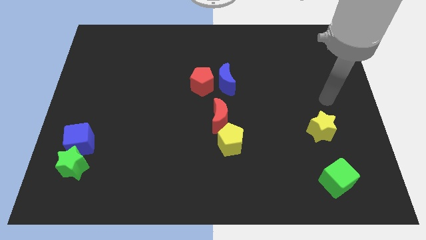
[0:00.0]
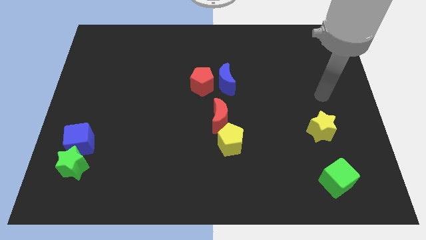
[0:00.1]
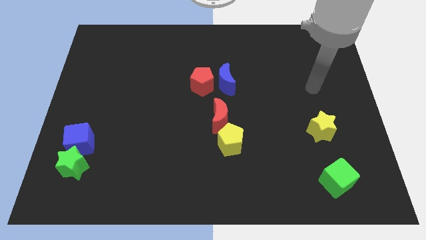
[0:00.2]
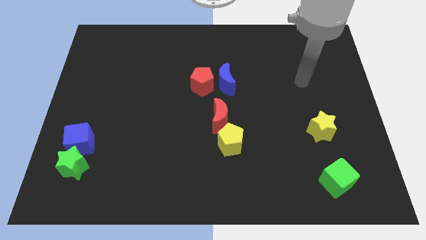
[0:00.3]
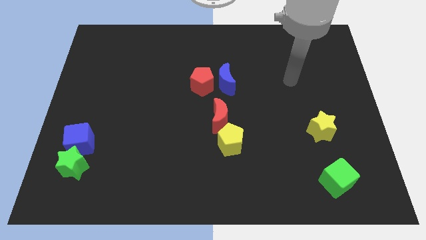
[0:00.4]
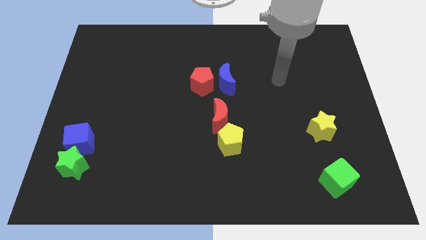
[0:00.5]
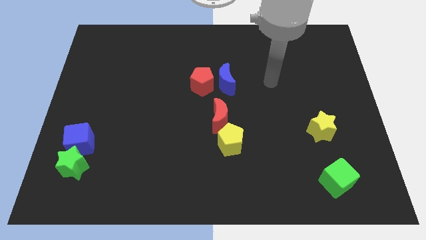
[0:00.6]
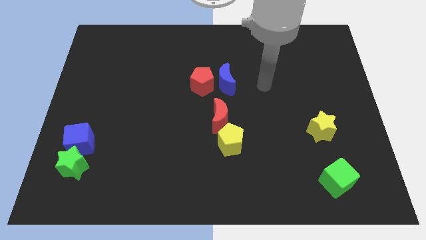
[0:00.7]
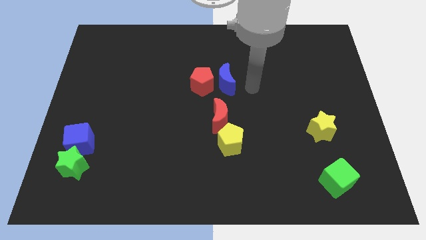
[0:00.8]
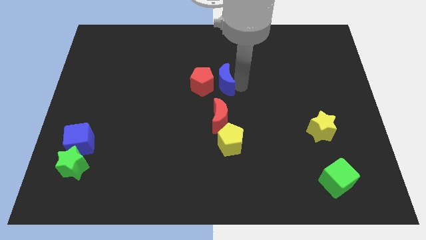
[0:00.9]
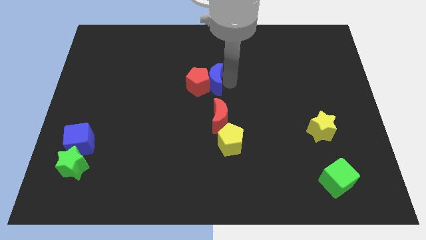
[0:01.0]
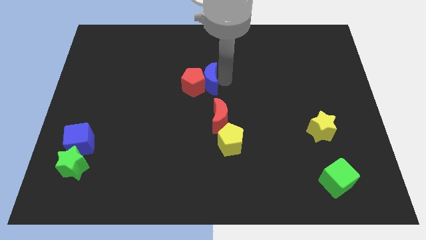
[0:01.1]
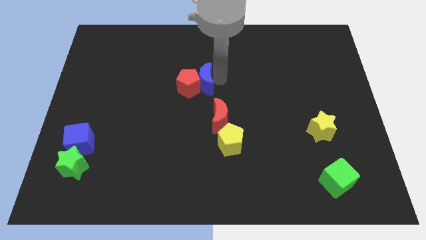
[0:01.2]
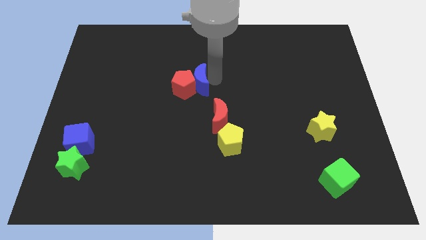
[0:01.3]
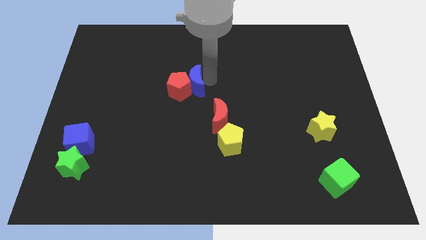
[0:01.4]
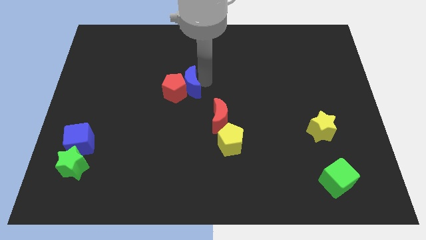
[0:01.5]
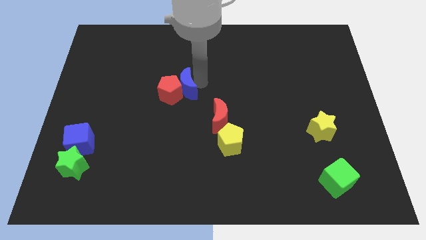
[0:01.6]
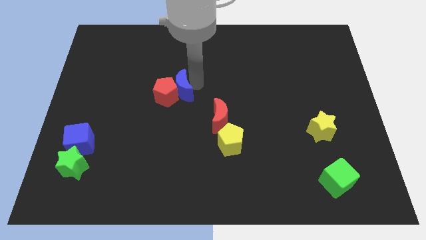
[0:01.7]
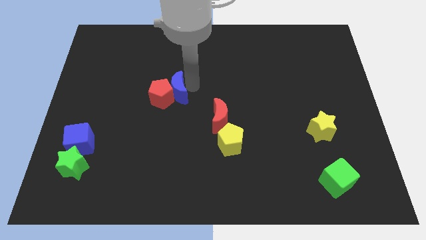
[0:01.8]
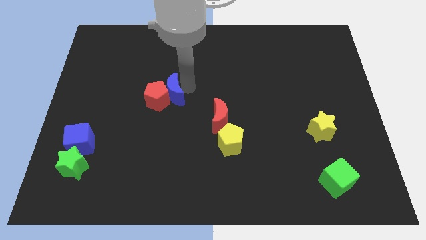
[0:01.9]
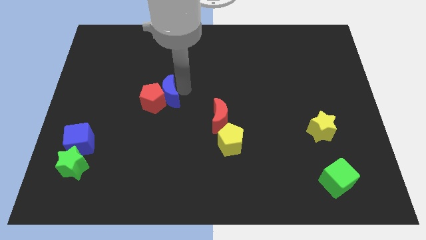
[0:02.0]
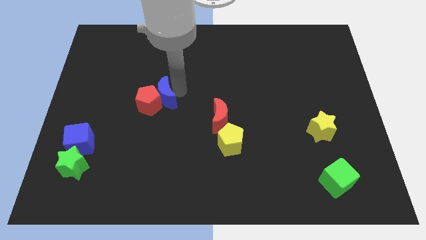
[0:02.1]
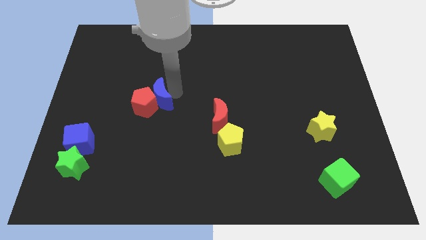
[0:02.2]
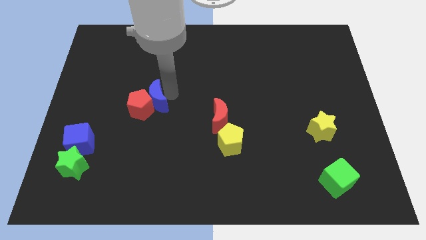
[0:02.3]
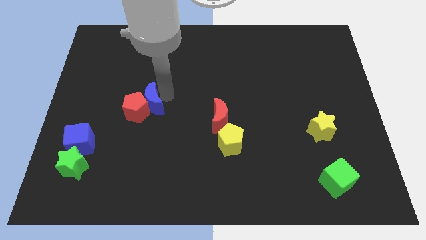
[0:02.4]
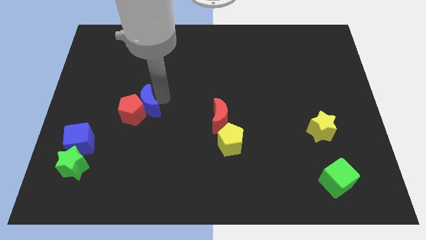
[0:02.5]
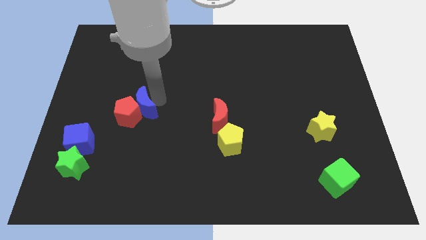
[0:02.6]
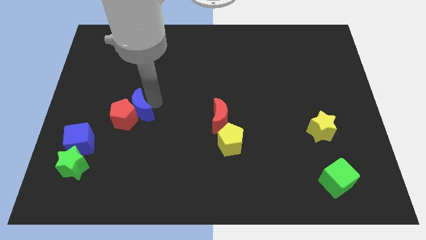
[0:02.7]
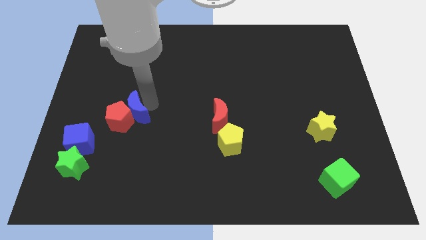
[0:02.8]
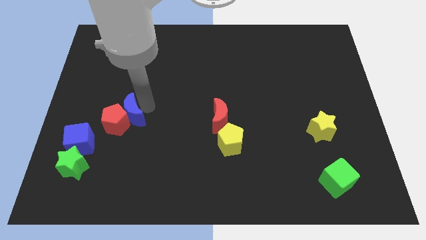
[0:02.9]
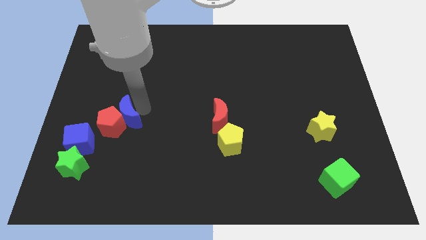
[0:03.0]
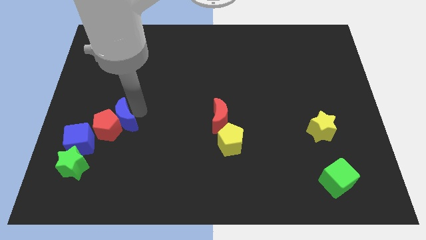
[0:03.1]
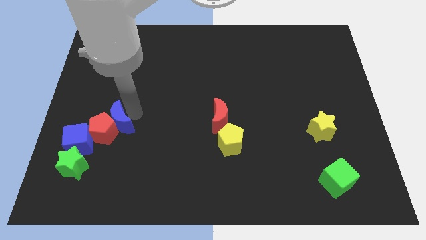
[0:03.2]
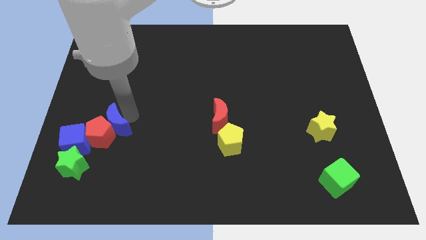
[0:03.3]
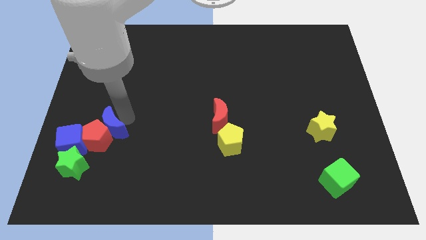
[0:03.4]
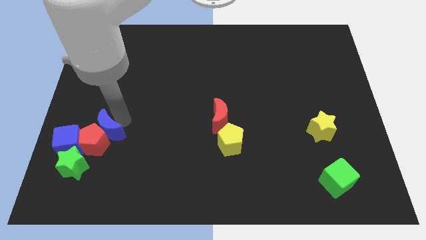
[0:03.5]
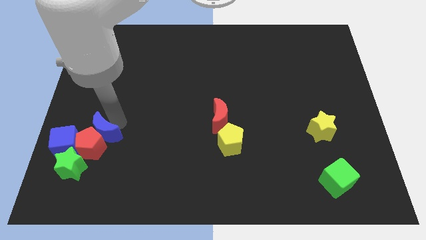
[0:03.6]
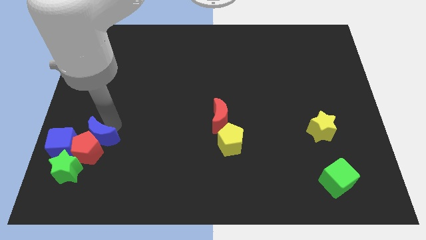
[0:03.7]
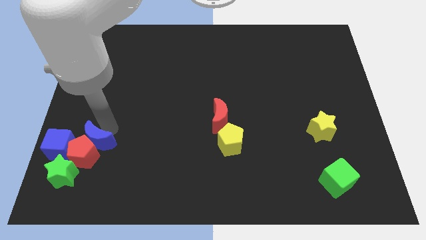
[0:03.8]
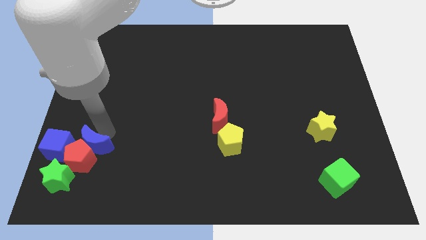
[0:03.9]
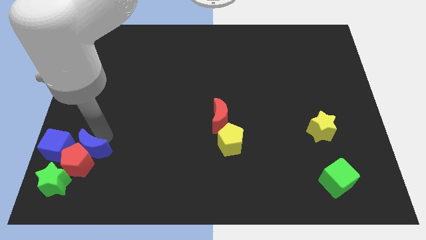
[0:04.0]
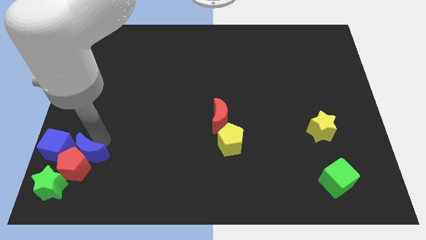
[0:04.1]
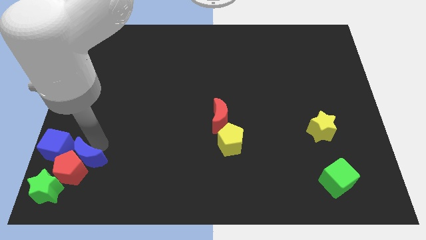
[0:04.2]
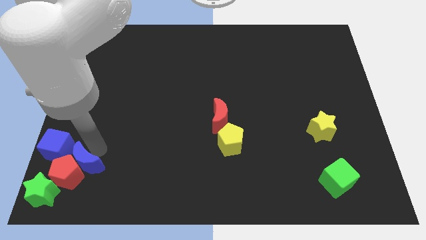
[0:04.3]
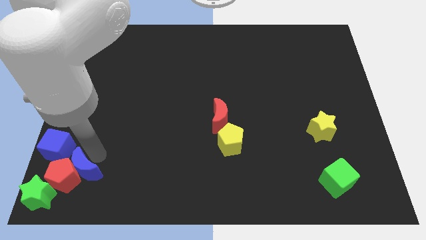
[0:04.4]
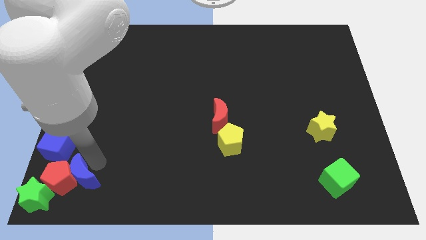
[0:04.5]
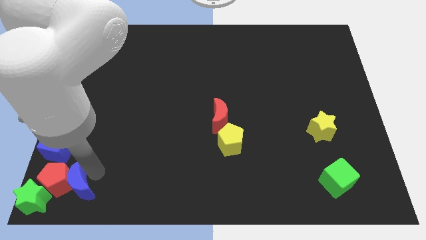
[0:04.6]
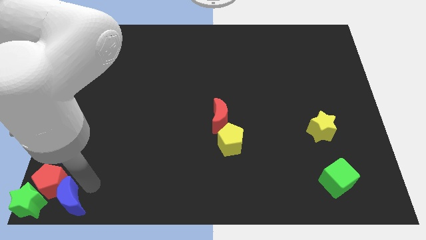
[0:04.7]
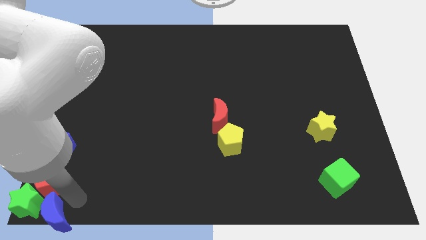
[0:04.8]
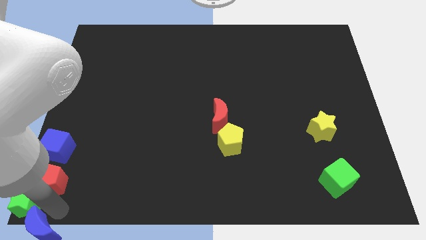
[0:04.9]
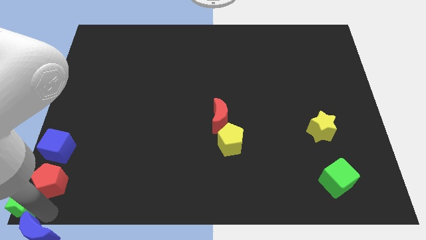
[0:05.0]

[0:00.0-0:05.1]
move the red pentagon away from the blue moon

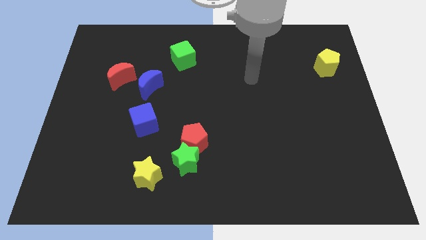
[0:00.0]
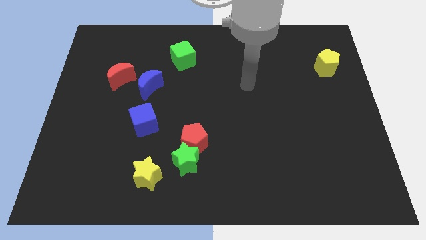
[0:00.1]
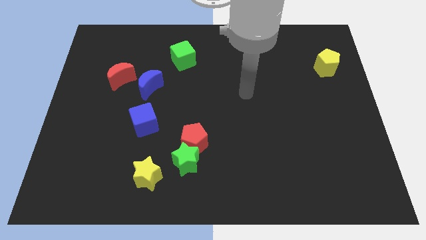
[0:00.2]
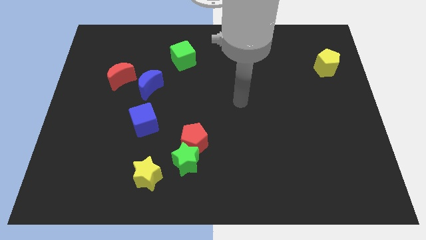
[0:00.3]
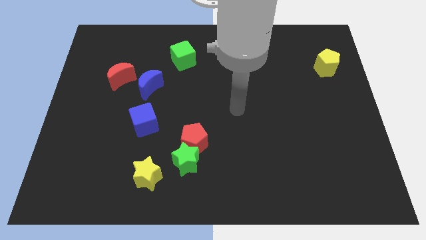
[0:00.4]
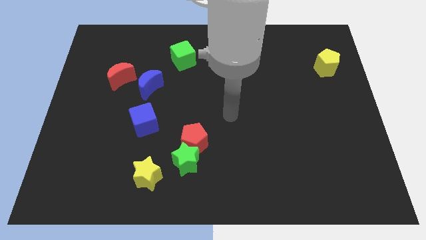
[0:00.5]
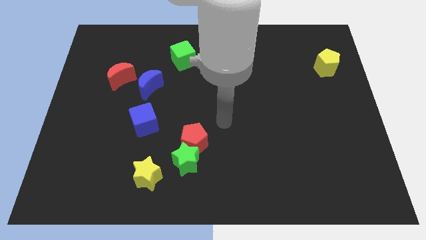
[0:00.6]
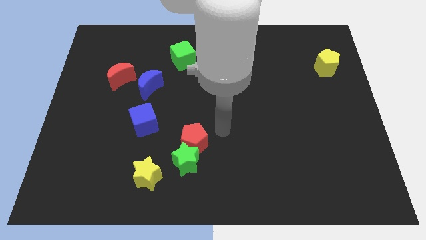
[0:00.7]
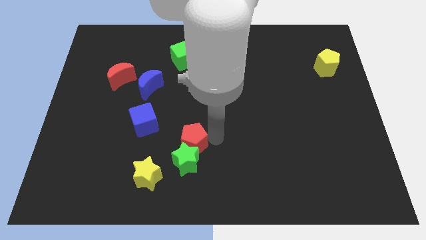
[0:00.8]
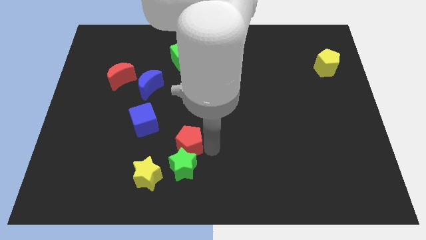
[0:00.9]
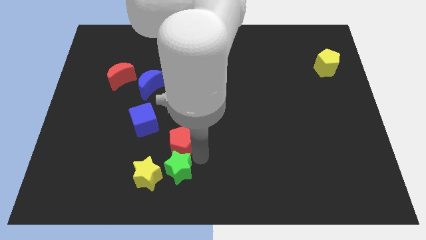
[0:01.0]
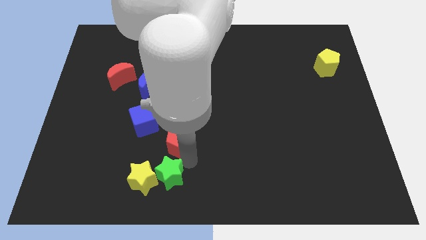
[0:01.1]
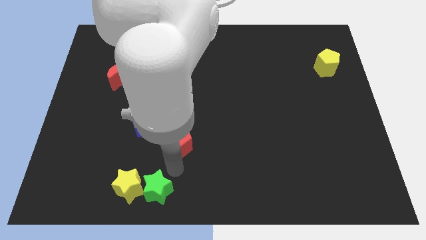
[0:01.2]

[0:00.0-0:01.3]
pull the red pentagon apart from the green star

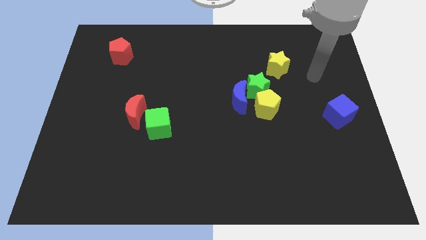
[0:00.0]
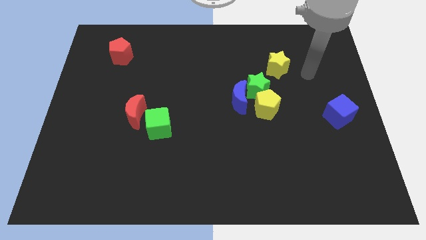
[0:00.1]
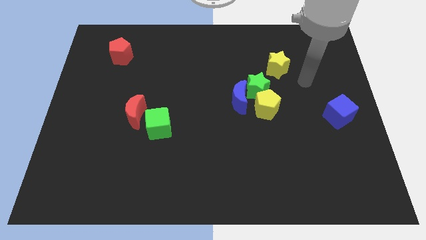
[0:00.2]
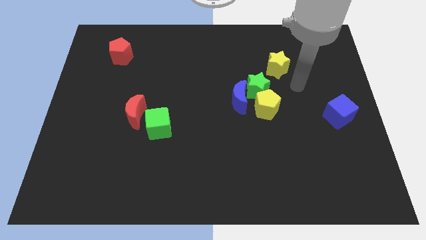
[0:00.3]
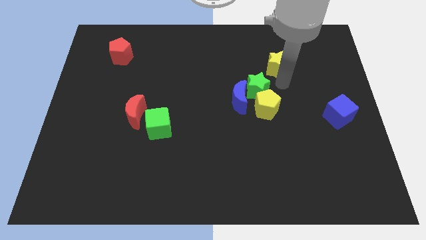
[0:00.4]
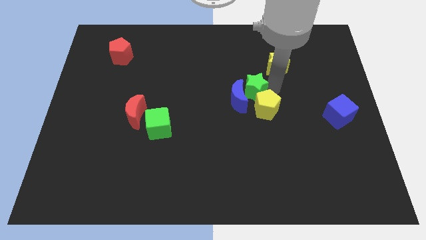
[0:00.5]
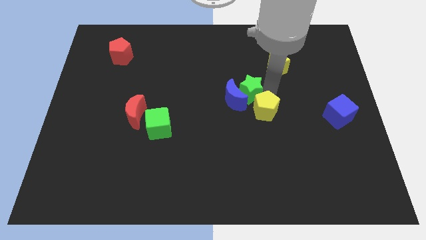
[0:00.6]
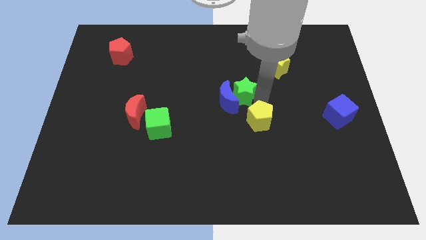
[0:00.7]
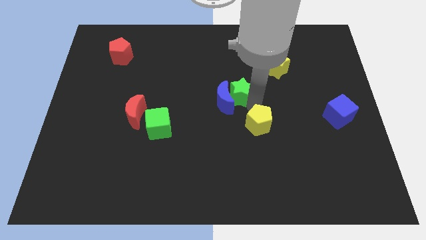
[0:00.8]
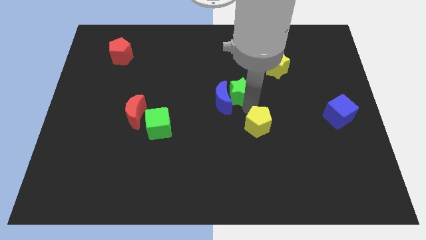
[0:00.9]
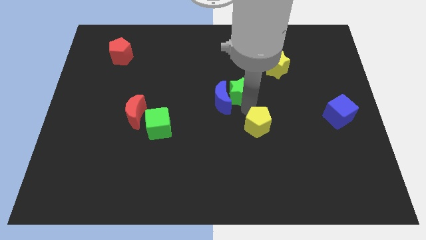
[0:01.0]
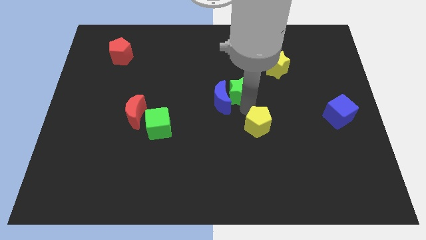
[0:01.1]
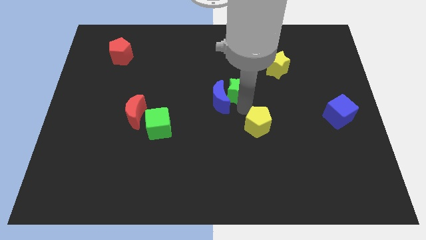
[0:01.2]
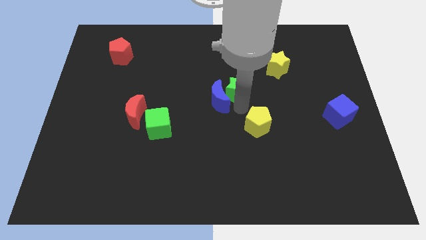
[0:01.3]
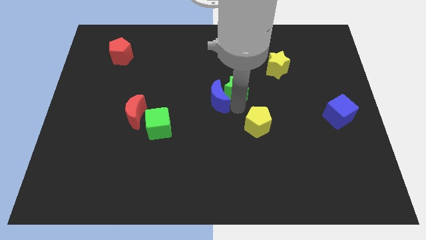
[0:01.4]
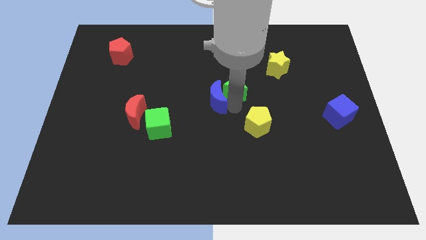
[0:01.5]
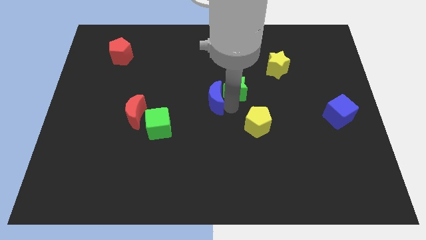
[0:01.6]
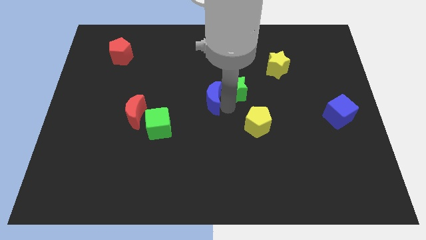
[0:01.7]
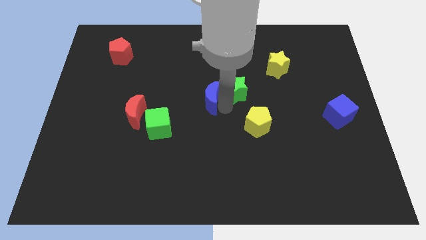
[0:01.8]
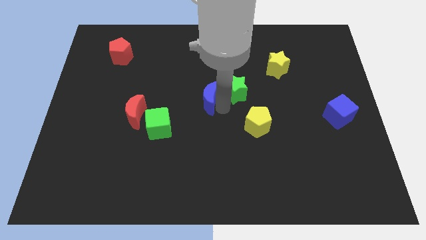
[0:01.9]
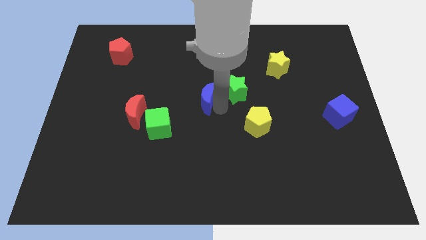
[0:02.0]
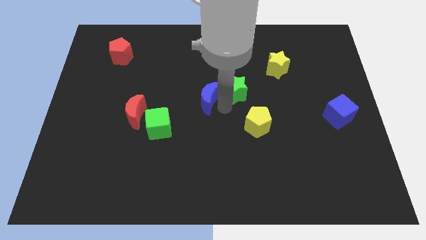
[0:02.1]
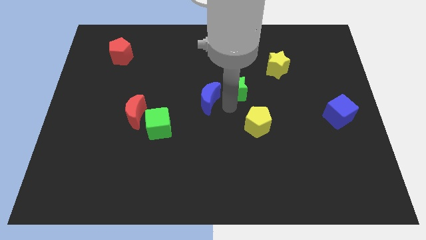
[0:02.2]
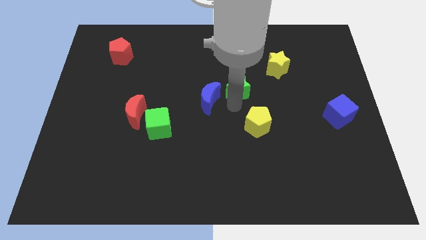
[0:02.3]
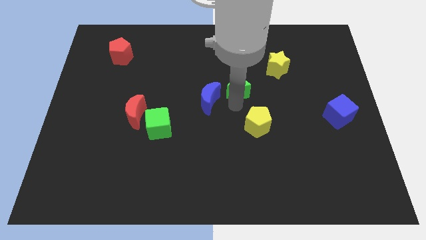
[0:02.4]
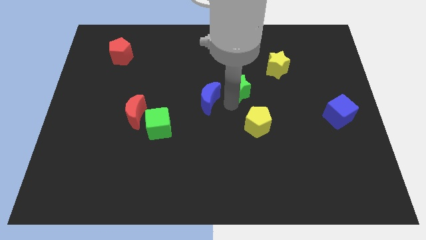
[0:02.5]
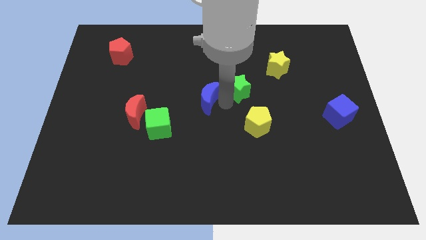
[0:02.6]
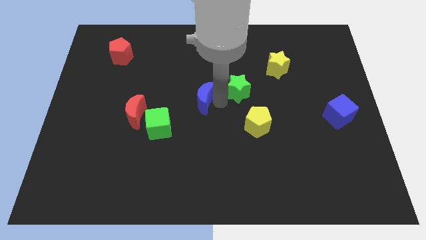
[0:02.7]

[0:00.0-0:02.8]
separate the blue moon from the green star and yellow pentagon
